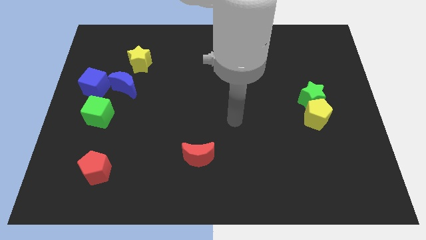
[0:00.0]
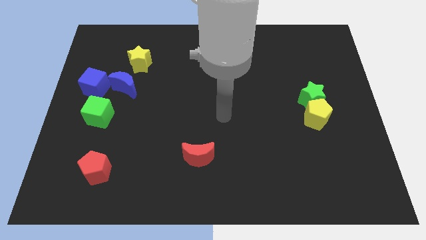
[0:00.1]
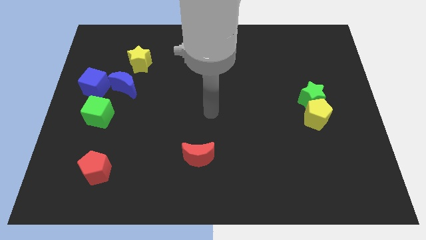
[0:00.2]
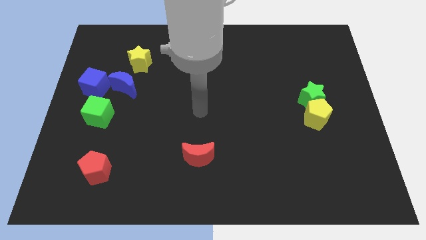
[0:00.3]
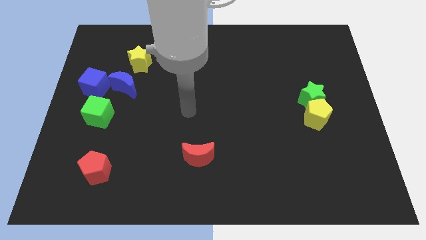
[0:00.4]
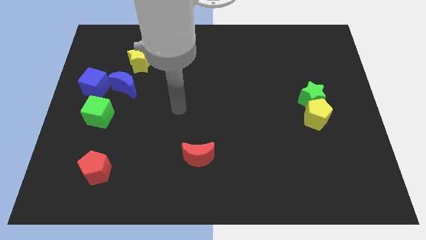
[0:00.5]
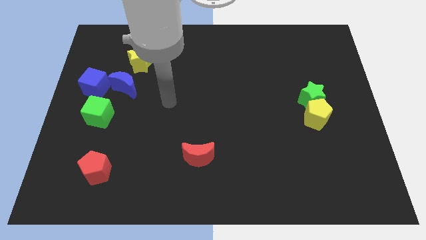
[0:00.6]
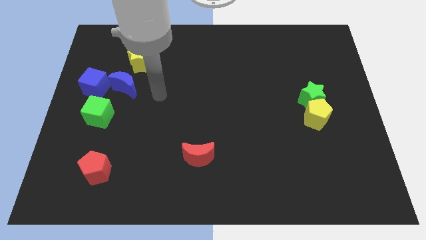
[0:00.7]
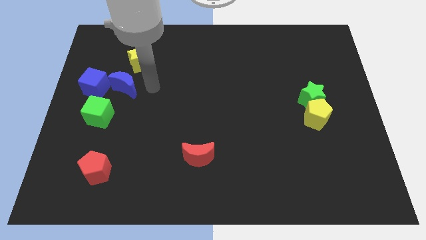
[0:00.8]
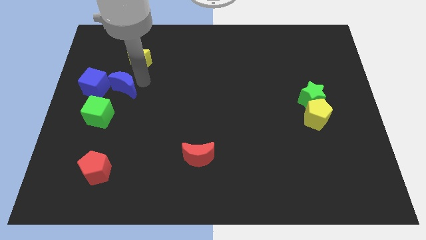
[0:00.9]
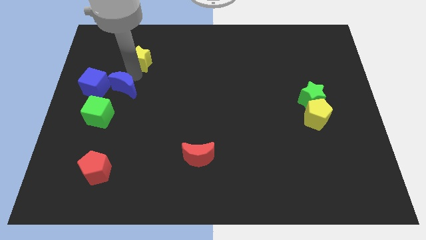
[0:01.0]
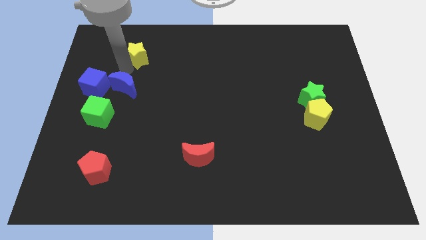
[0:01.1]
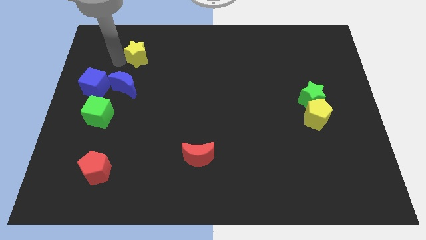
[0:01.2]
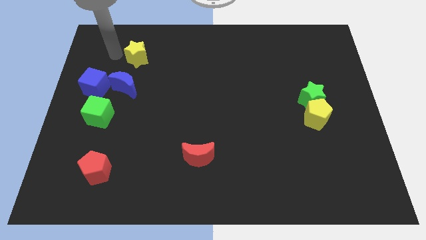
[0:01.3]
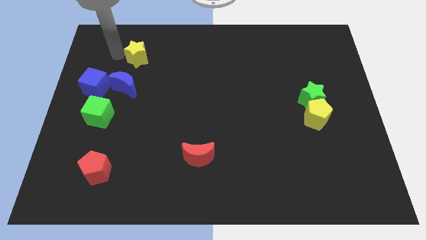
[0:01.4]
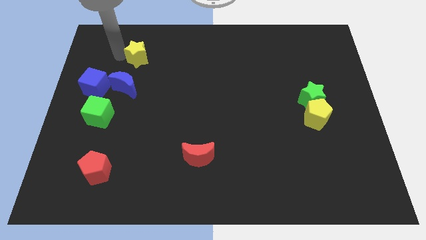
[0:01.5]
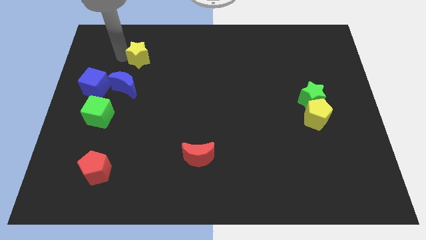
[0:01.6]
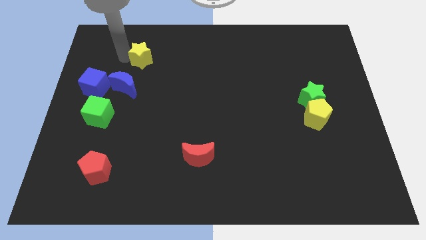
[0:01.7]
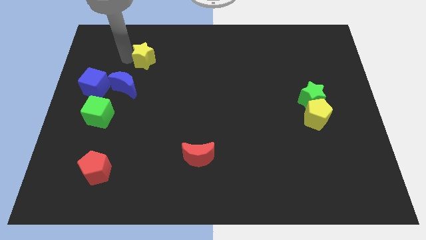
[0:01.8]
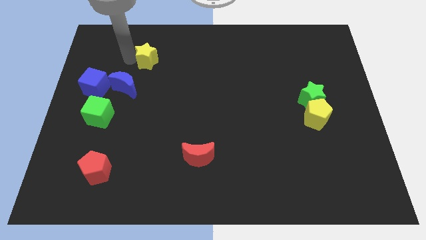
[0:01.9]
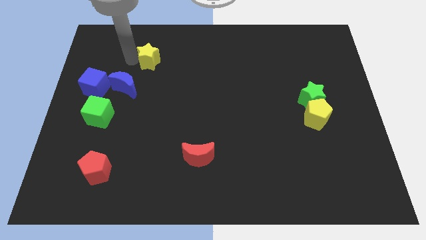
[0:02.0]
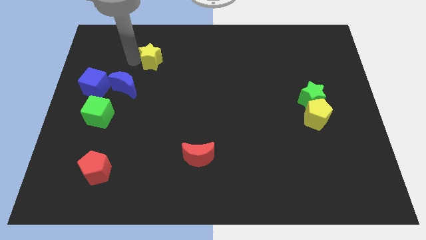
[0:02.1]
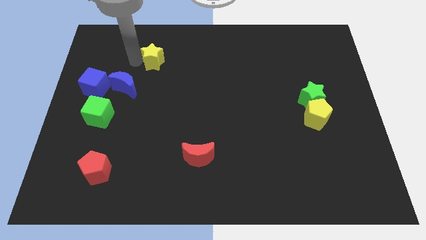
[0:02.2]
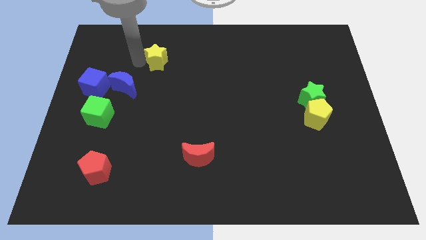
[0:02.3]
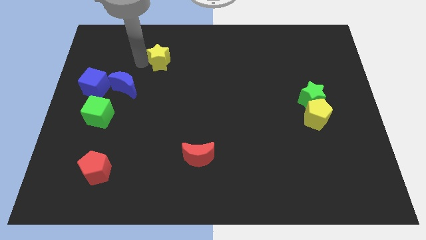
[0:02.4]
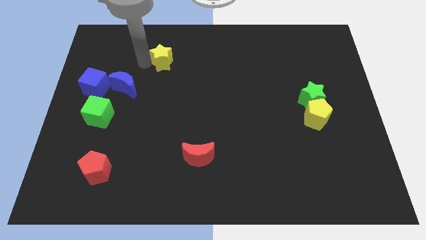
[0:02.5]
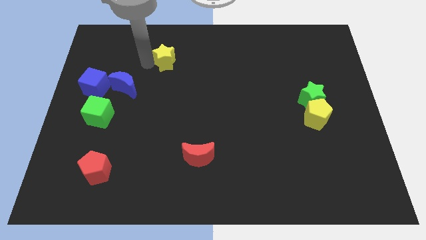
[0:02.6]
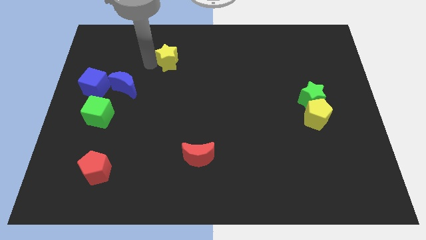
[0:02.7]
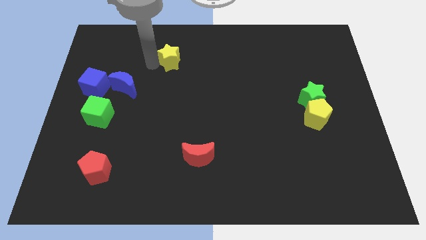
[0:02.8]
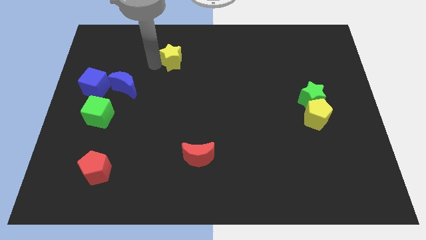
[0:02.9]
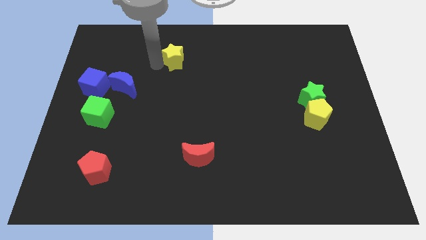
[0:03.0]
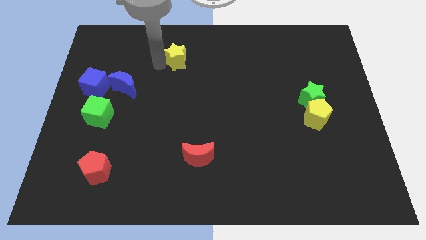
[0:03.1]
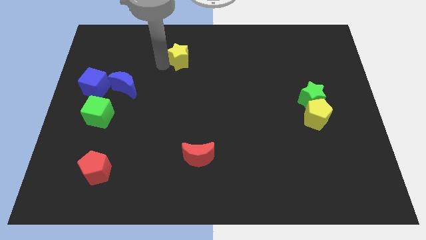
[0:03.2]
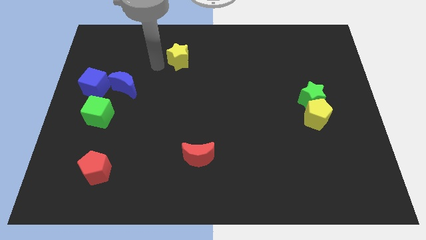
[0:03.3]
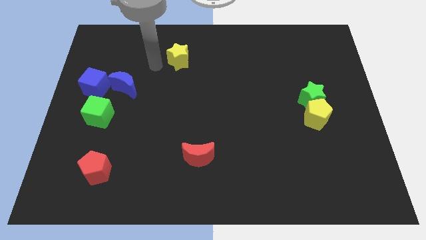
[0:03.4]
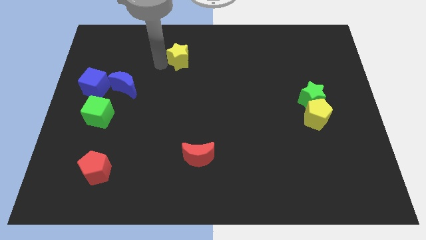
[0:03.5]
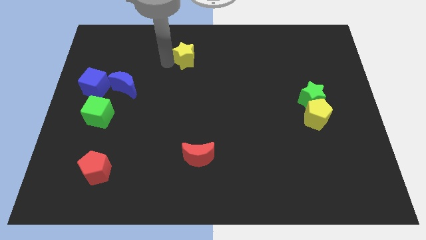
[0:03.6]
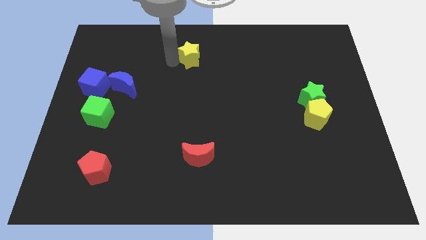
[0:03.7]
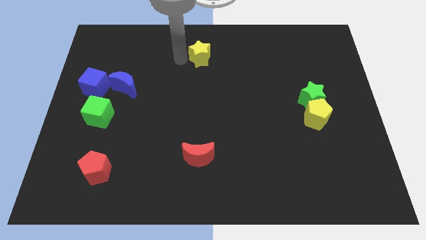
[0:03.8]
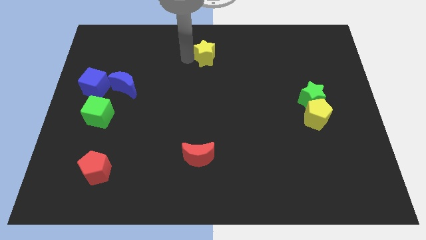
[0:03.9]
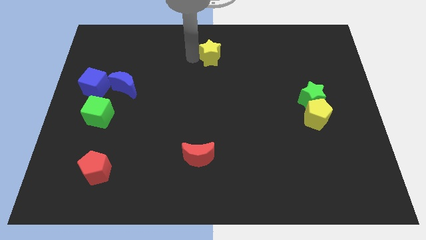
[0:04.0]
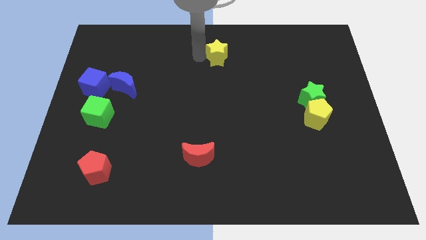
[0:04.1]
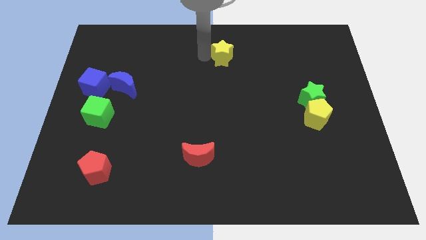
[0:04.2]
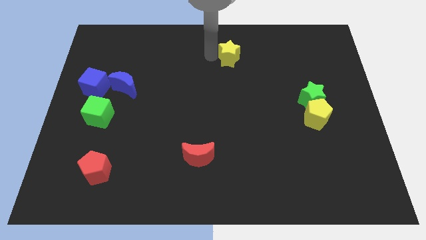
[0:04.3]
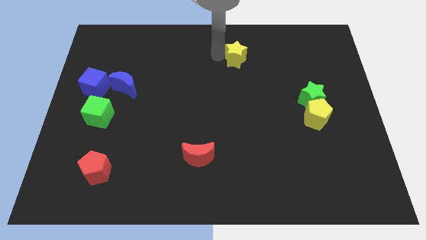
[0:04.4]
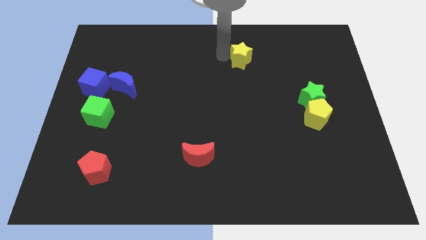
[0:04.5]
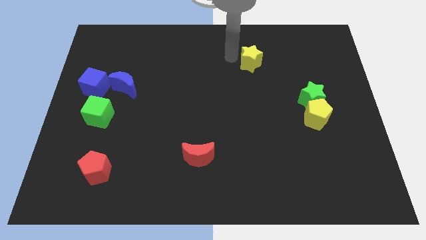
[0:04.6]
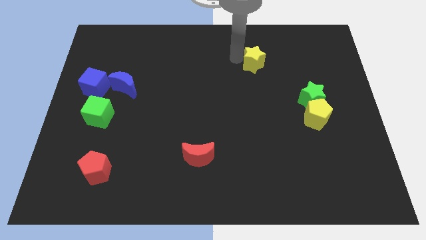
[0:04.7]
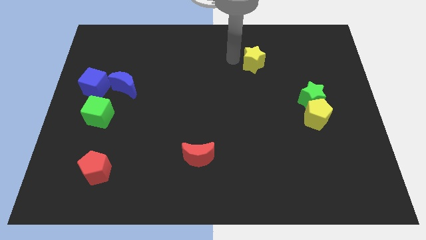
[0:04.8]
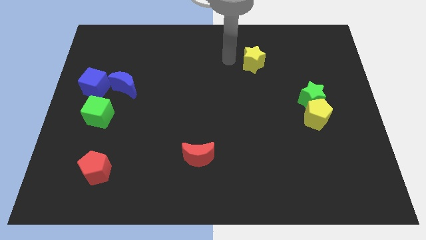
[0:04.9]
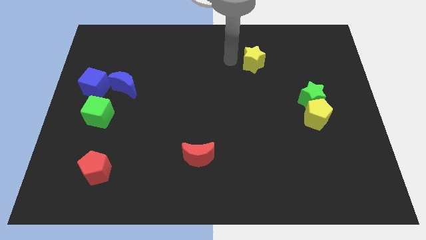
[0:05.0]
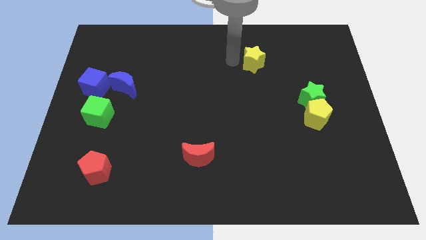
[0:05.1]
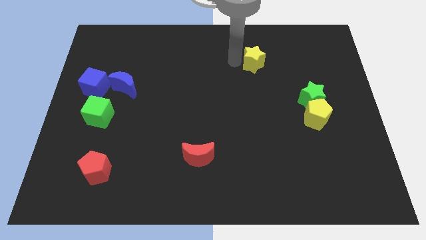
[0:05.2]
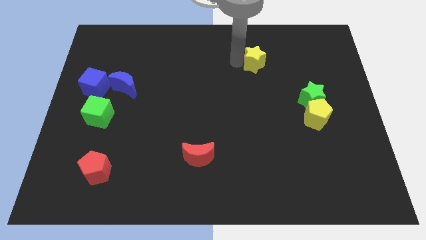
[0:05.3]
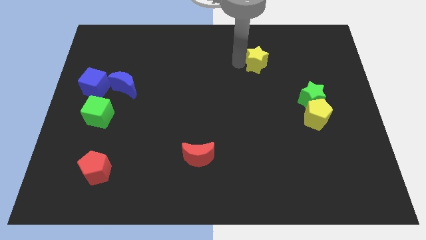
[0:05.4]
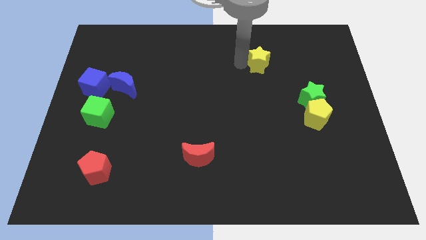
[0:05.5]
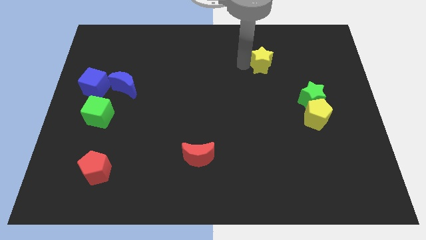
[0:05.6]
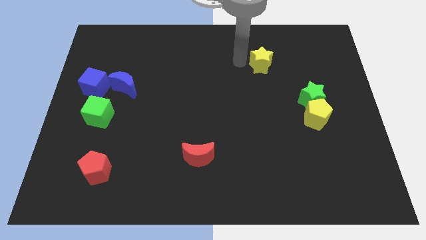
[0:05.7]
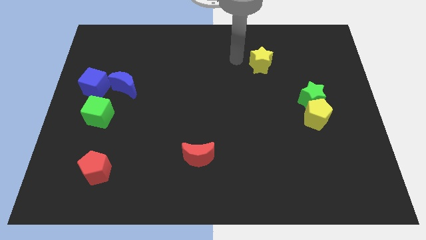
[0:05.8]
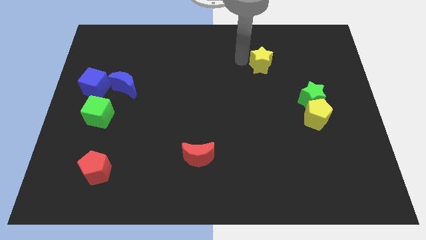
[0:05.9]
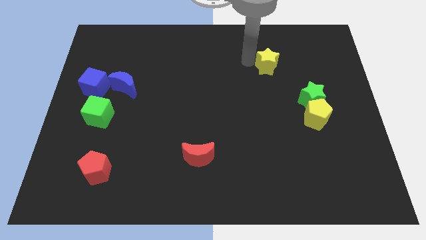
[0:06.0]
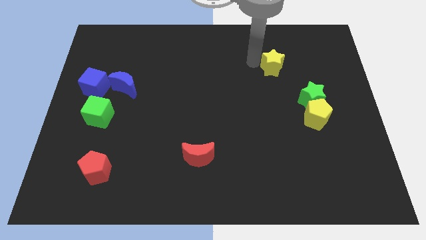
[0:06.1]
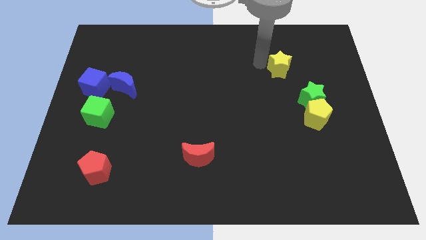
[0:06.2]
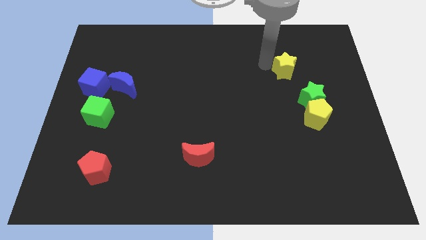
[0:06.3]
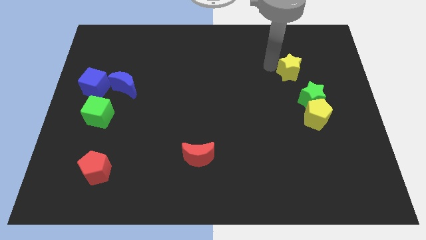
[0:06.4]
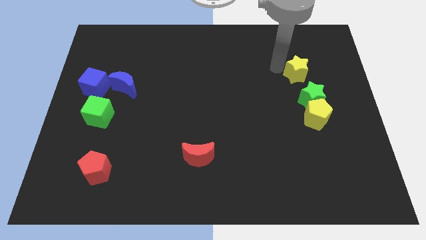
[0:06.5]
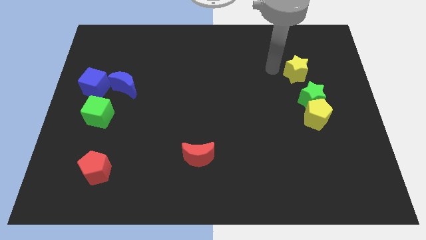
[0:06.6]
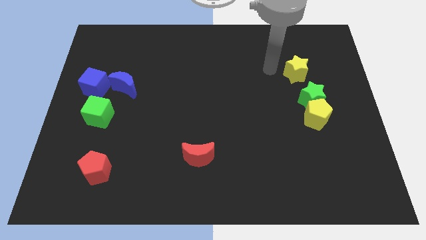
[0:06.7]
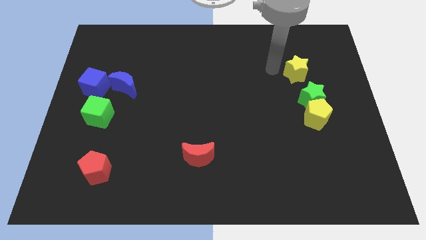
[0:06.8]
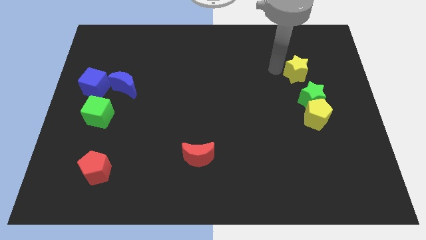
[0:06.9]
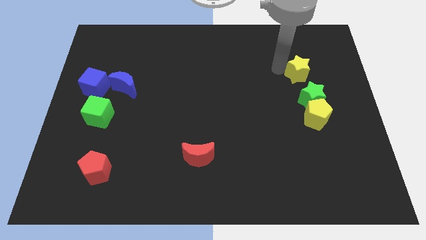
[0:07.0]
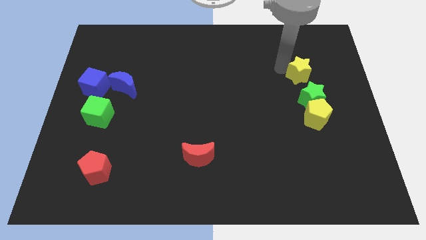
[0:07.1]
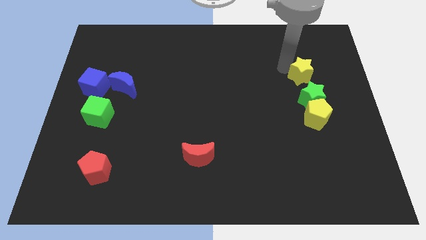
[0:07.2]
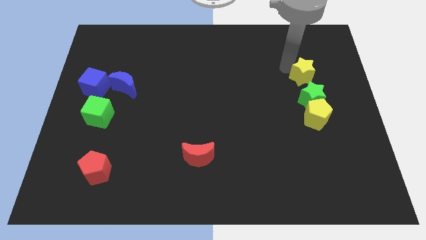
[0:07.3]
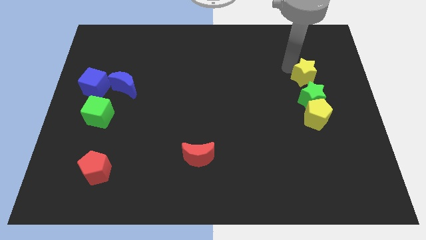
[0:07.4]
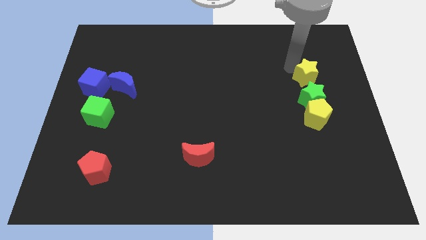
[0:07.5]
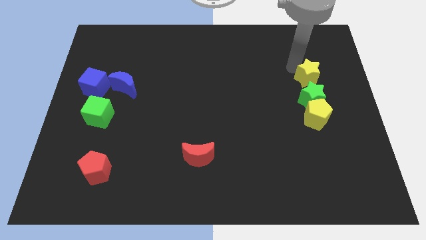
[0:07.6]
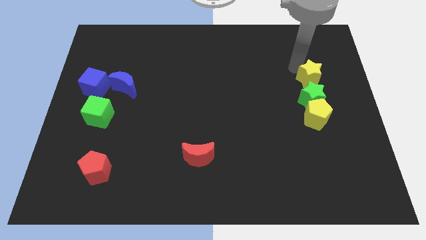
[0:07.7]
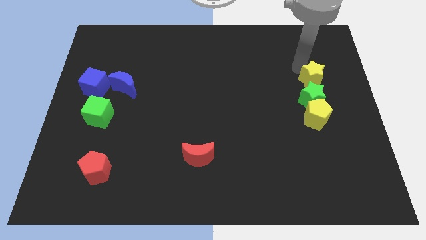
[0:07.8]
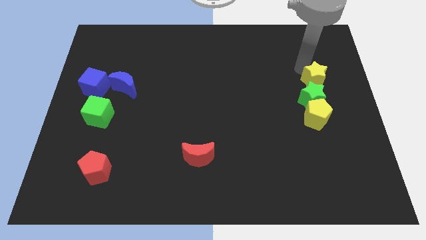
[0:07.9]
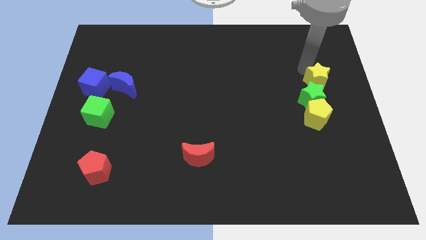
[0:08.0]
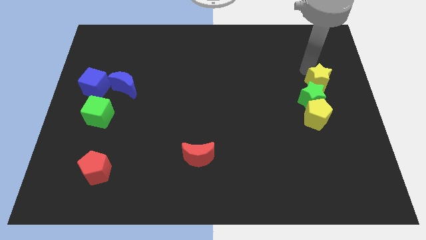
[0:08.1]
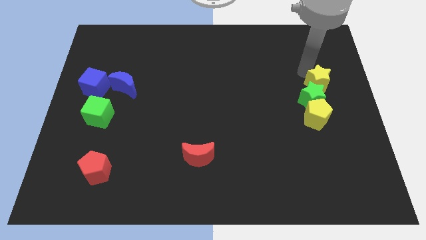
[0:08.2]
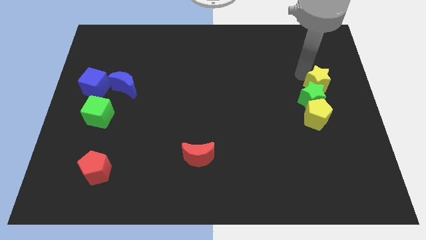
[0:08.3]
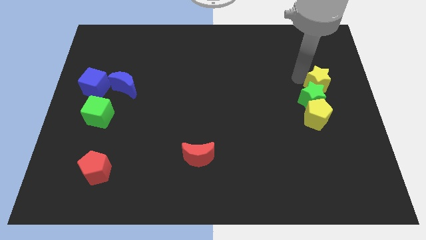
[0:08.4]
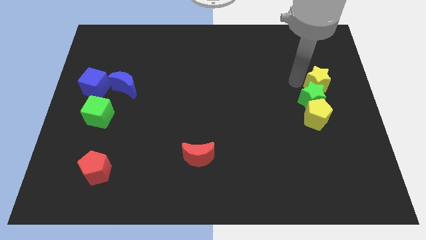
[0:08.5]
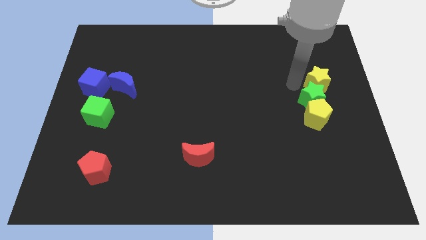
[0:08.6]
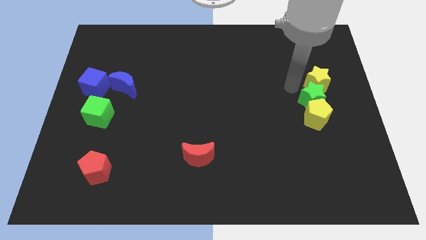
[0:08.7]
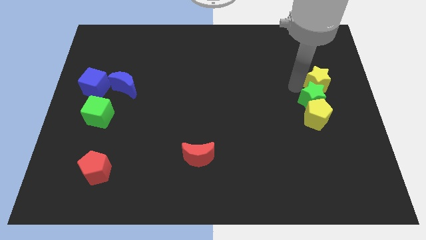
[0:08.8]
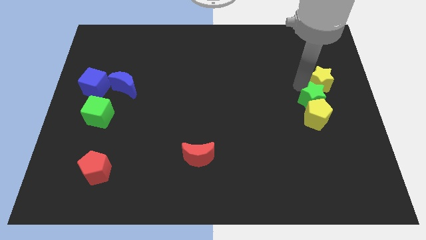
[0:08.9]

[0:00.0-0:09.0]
move the yellow star to the right side
